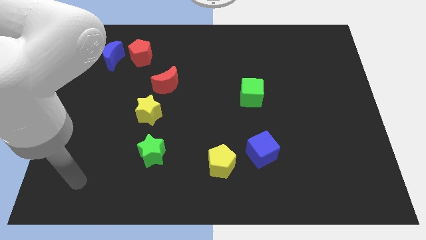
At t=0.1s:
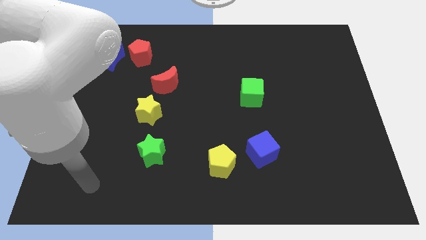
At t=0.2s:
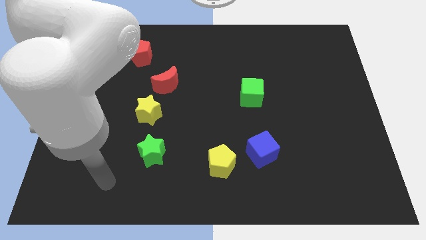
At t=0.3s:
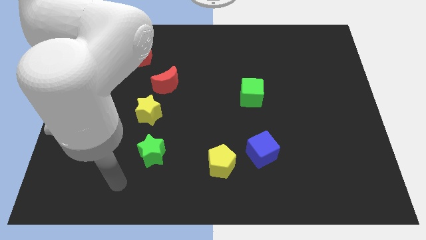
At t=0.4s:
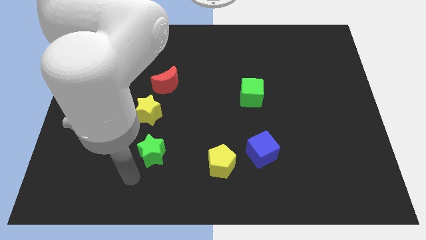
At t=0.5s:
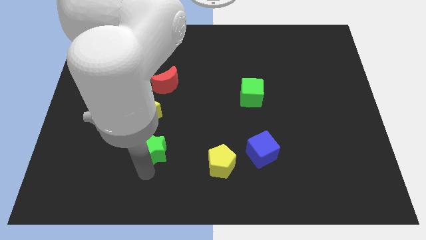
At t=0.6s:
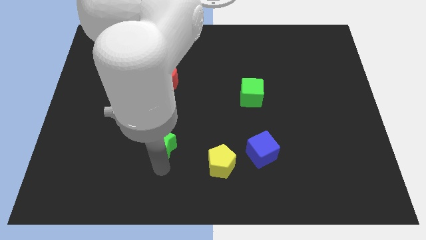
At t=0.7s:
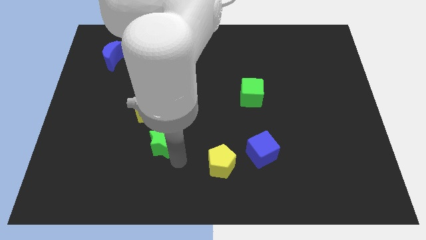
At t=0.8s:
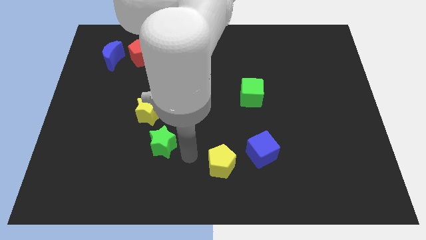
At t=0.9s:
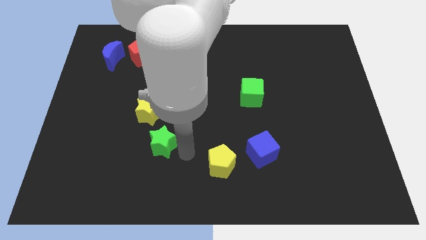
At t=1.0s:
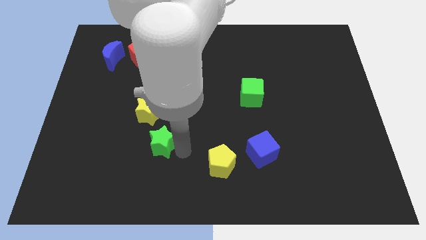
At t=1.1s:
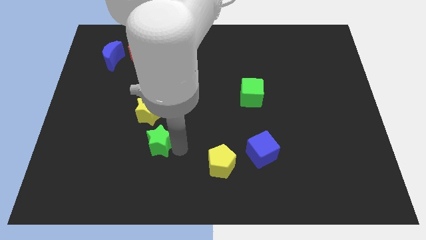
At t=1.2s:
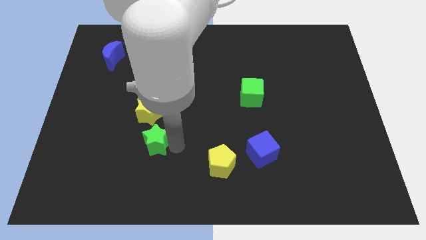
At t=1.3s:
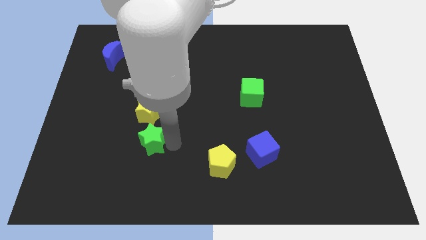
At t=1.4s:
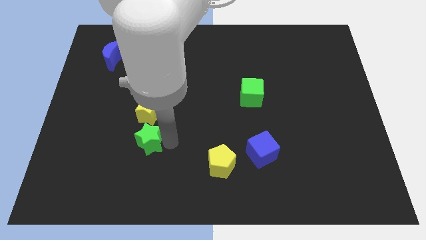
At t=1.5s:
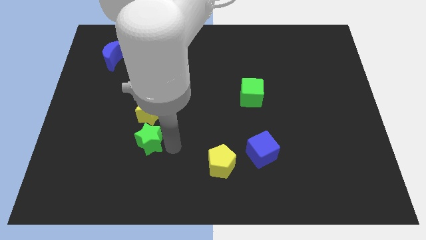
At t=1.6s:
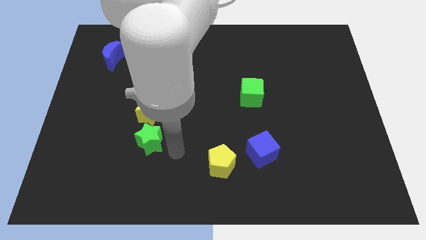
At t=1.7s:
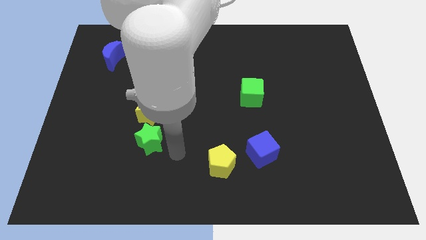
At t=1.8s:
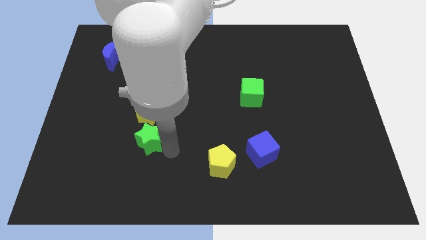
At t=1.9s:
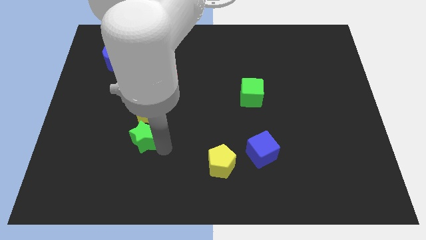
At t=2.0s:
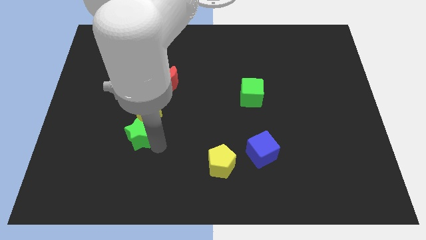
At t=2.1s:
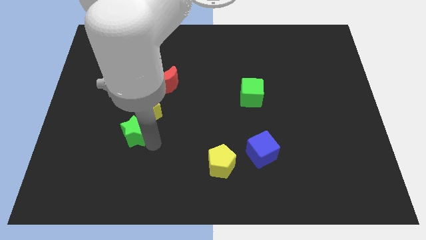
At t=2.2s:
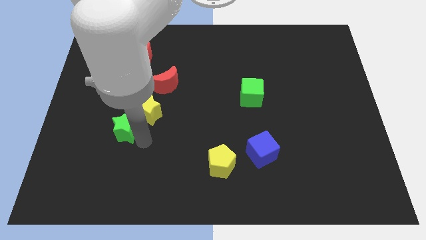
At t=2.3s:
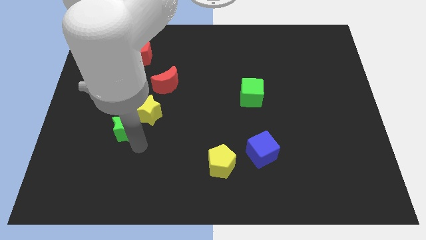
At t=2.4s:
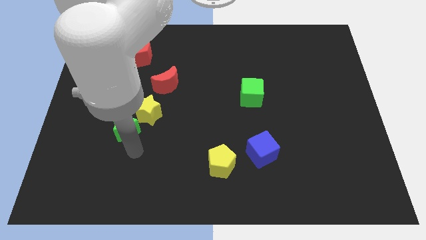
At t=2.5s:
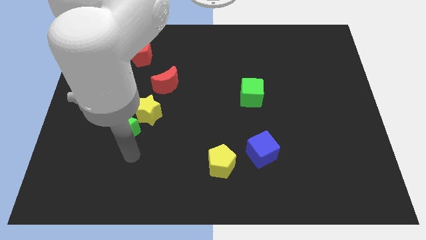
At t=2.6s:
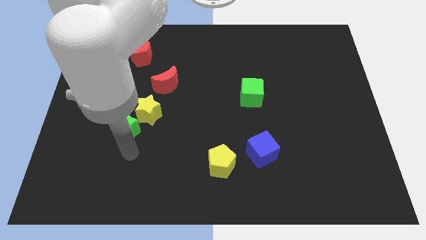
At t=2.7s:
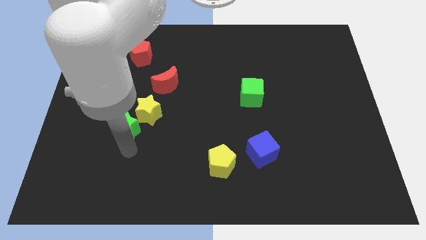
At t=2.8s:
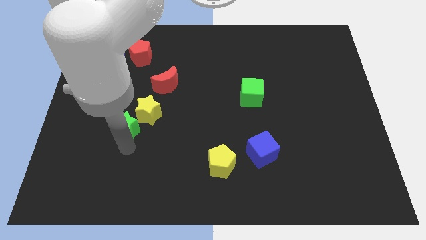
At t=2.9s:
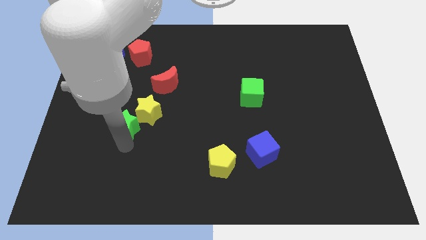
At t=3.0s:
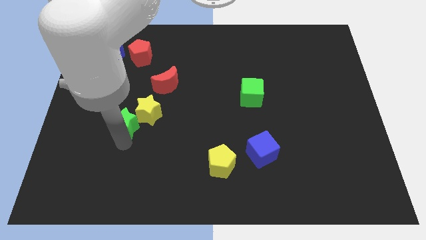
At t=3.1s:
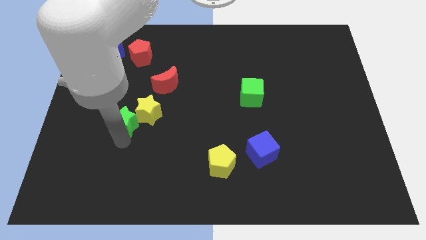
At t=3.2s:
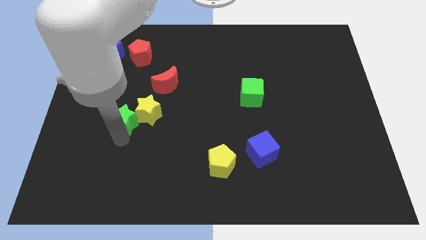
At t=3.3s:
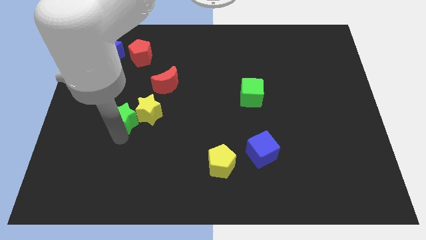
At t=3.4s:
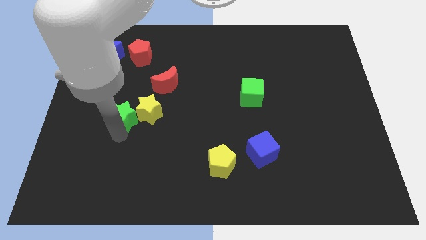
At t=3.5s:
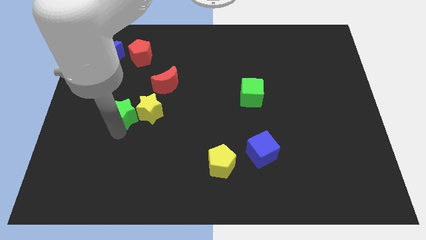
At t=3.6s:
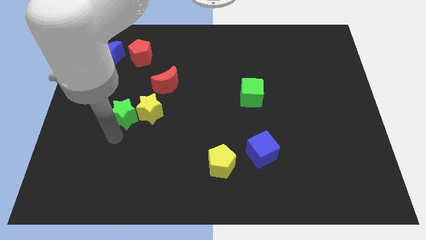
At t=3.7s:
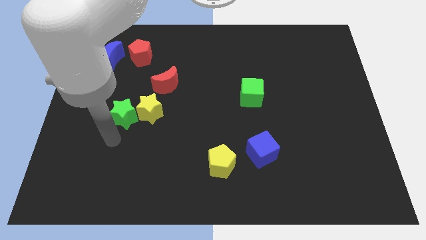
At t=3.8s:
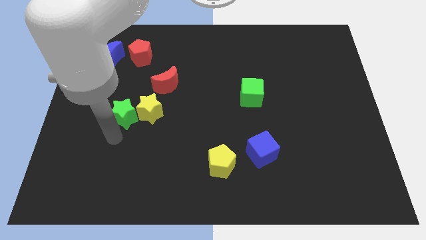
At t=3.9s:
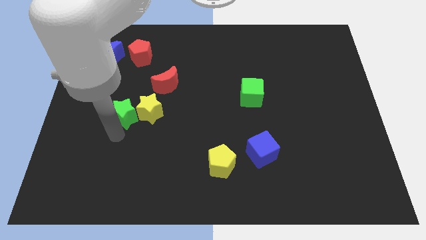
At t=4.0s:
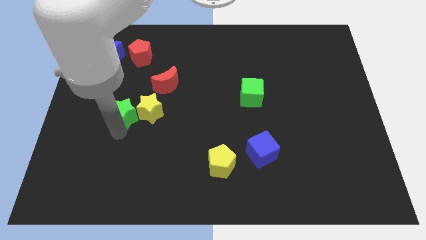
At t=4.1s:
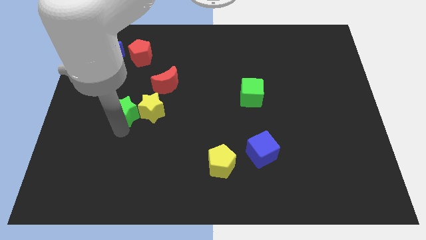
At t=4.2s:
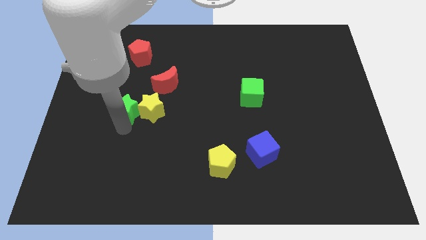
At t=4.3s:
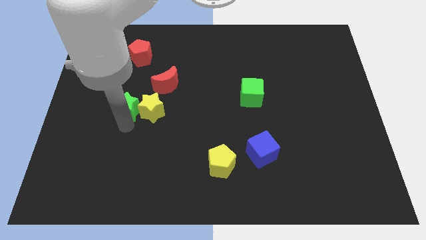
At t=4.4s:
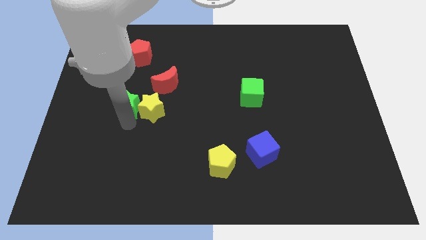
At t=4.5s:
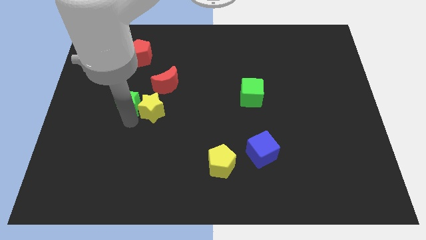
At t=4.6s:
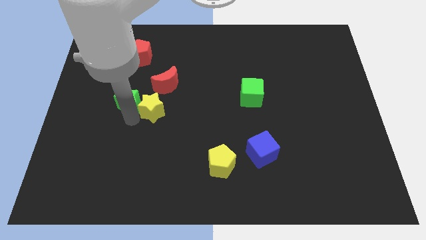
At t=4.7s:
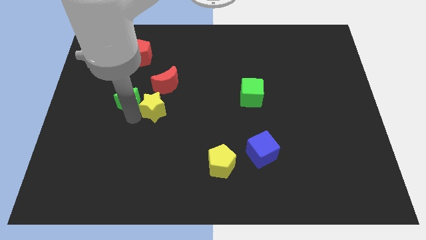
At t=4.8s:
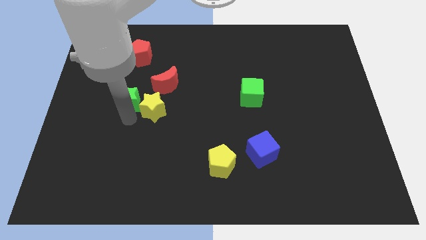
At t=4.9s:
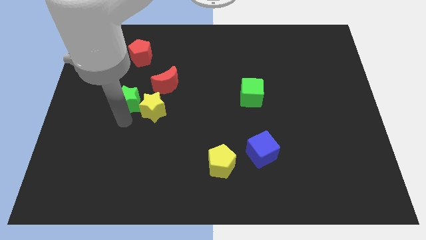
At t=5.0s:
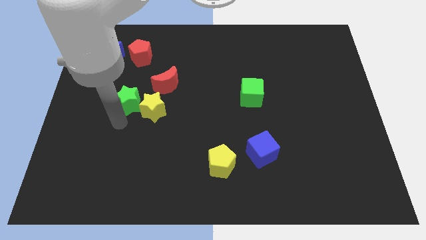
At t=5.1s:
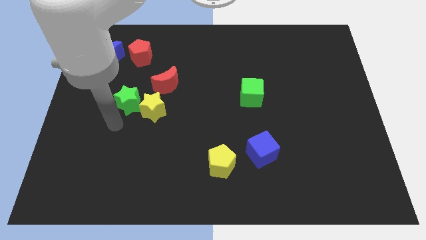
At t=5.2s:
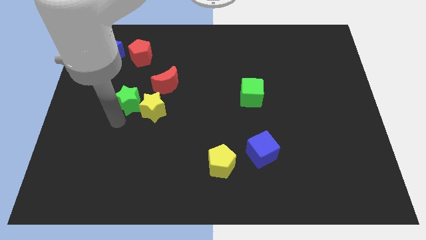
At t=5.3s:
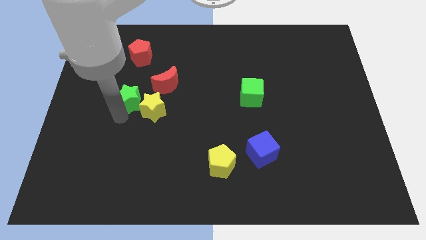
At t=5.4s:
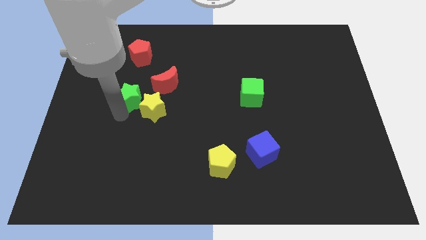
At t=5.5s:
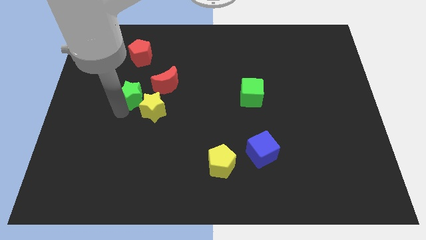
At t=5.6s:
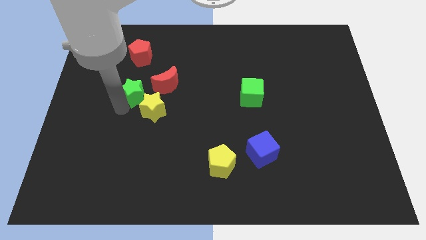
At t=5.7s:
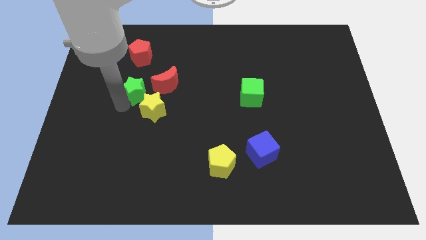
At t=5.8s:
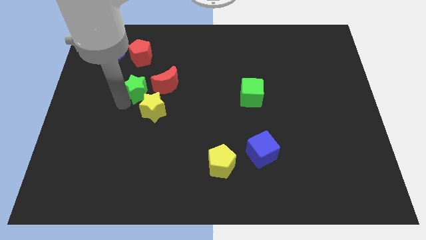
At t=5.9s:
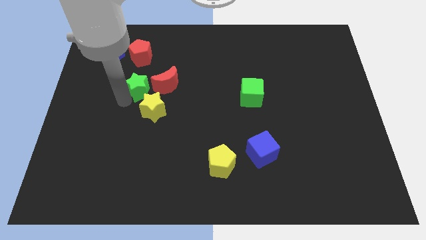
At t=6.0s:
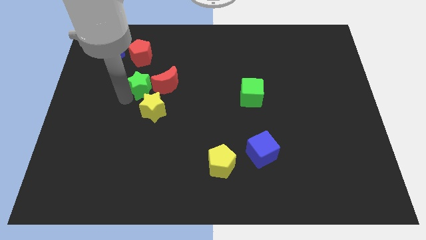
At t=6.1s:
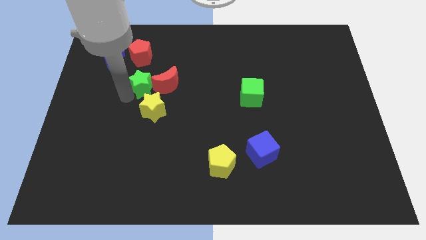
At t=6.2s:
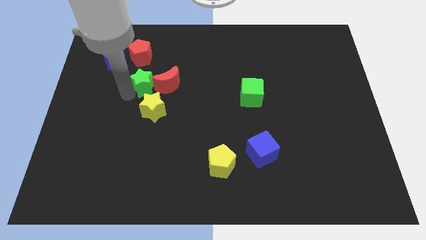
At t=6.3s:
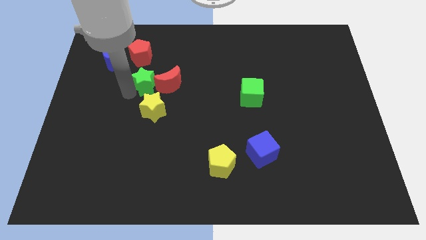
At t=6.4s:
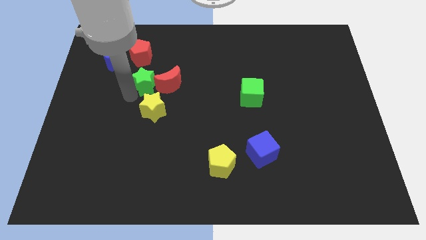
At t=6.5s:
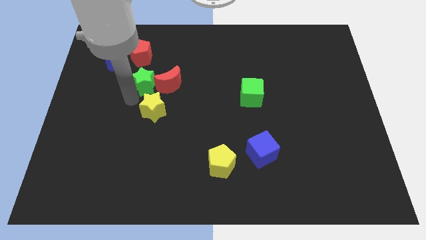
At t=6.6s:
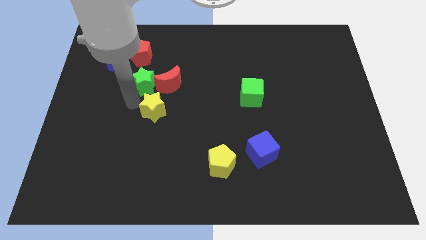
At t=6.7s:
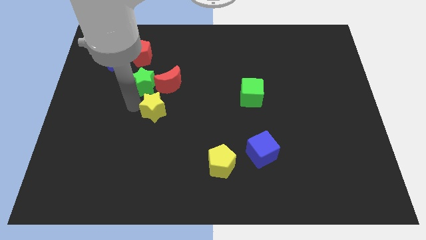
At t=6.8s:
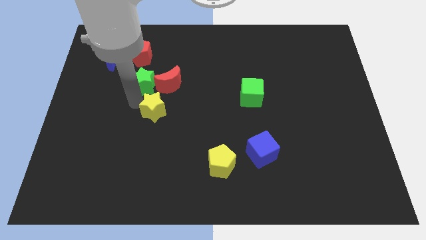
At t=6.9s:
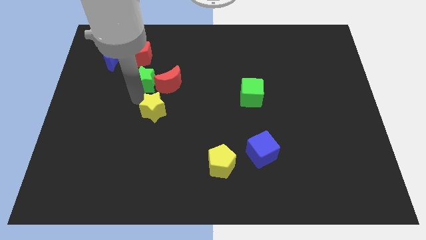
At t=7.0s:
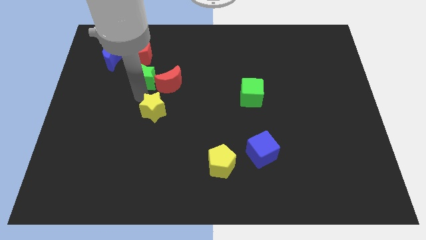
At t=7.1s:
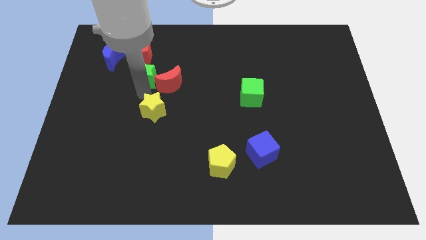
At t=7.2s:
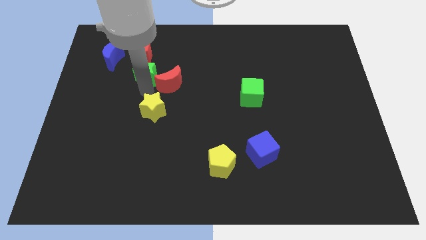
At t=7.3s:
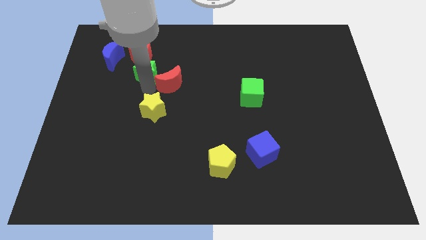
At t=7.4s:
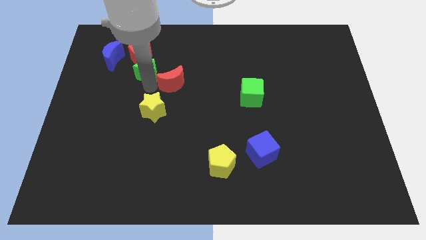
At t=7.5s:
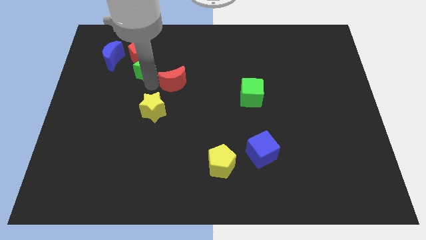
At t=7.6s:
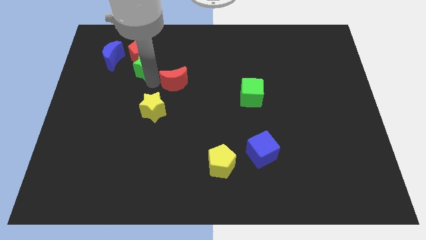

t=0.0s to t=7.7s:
put the green star to the right of the blue moon
